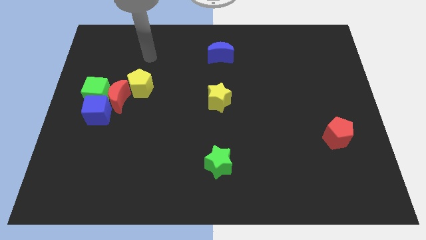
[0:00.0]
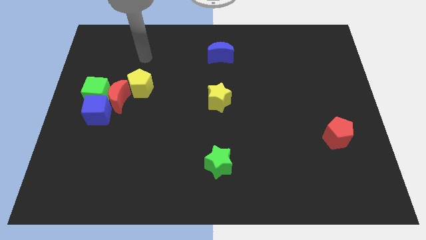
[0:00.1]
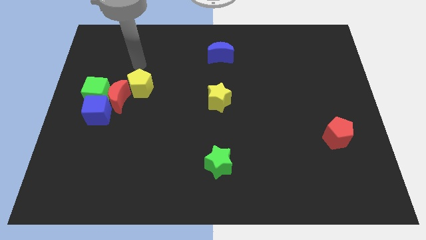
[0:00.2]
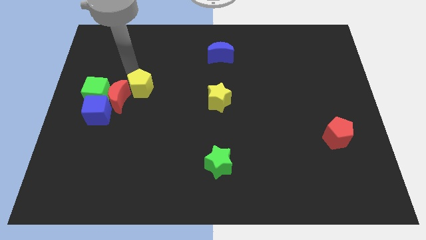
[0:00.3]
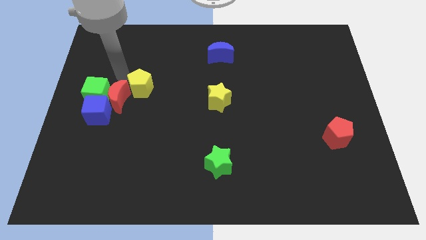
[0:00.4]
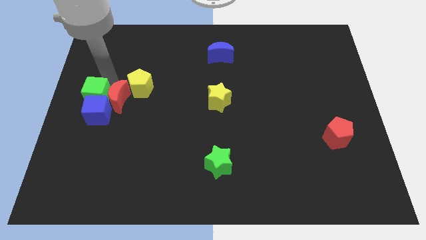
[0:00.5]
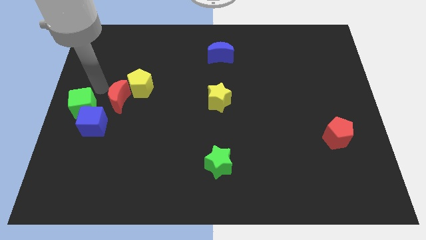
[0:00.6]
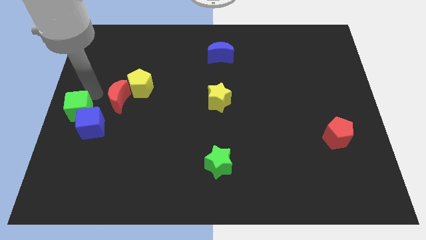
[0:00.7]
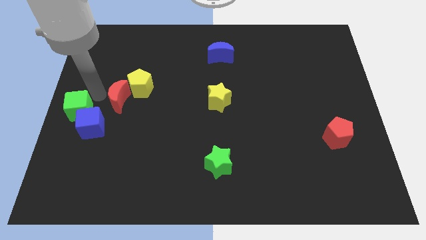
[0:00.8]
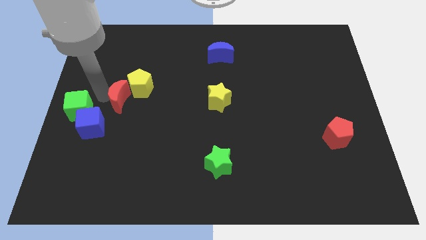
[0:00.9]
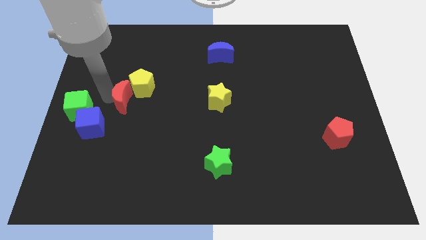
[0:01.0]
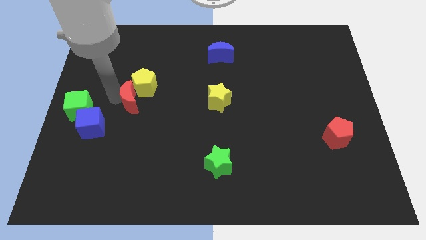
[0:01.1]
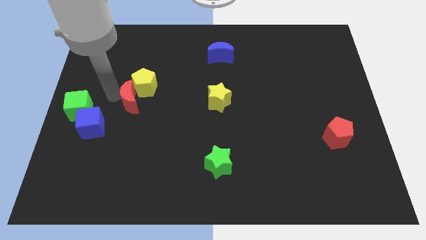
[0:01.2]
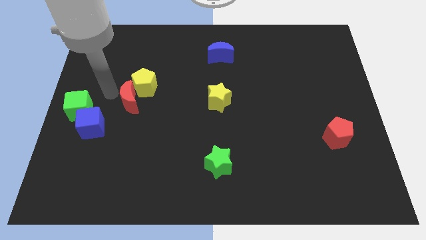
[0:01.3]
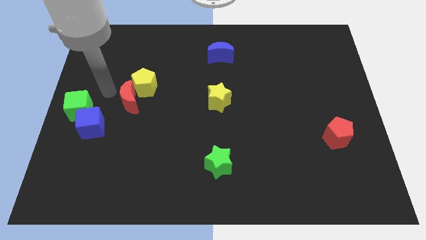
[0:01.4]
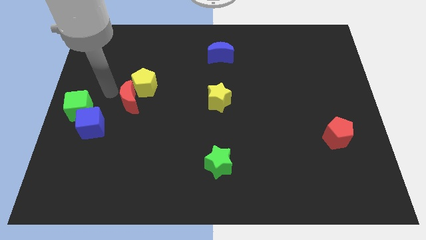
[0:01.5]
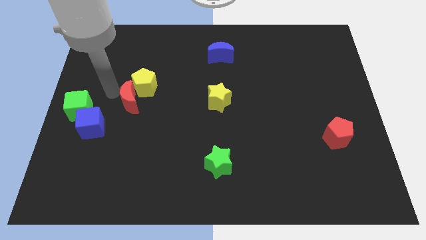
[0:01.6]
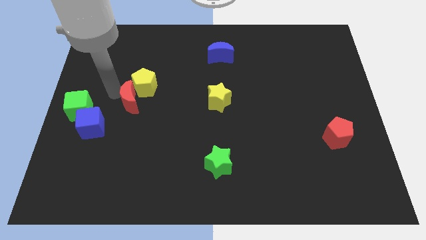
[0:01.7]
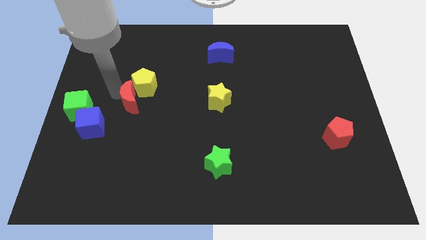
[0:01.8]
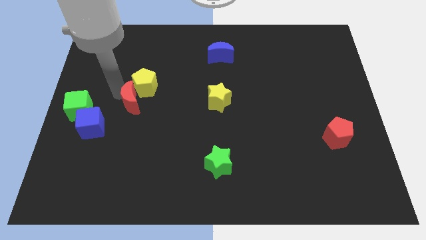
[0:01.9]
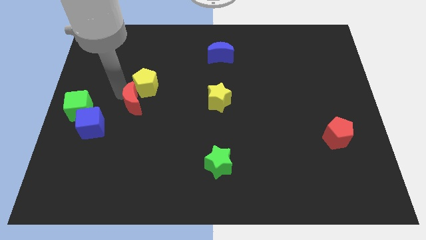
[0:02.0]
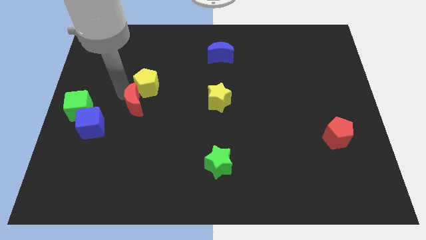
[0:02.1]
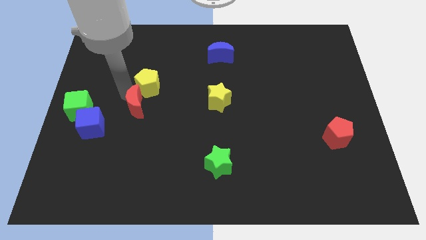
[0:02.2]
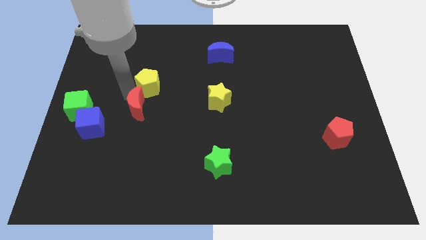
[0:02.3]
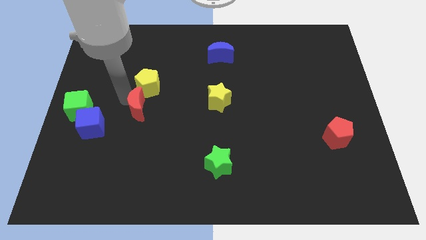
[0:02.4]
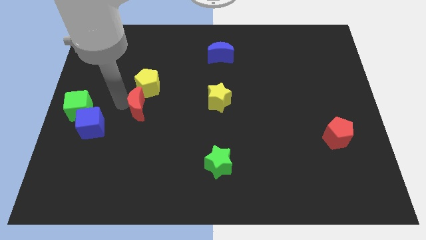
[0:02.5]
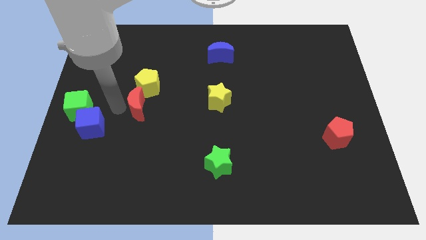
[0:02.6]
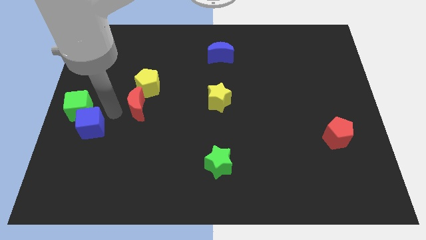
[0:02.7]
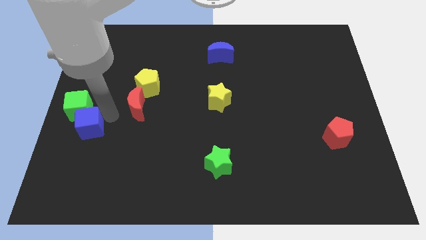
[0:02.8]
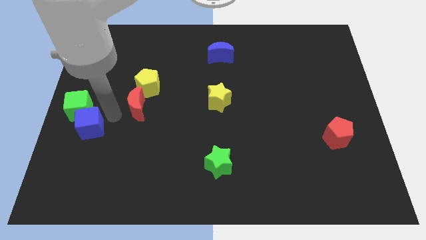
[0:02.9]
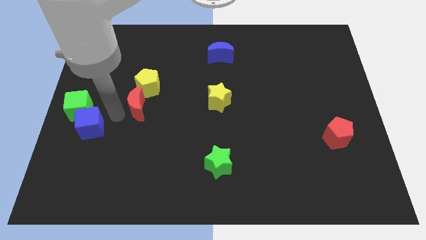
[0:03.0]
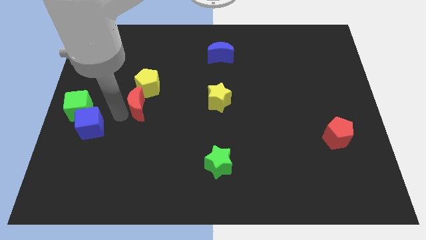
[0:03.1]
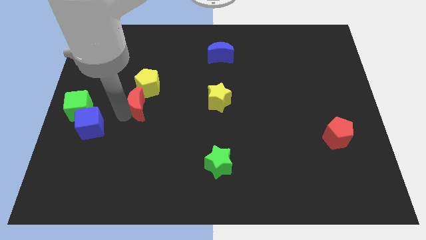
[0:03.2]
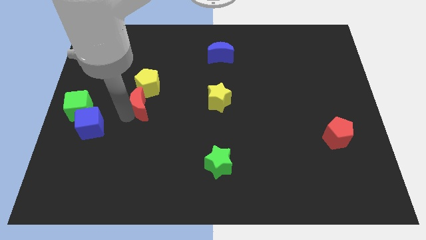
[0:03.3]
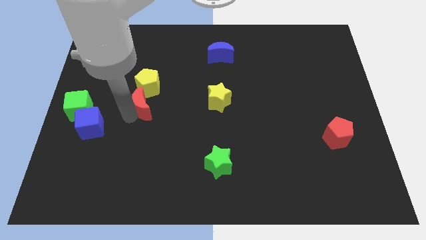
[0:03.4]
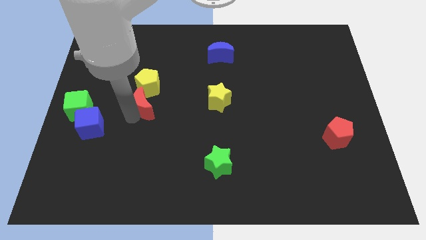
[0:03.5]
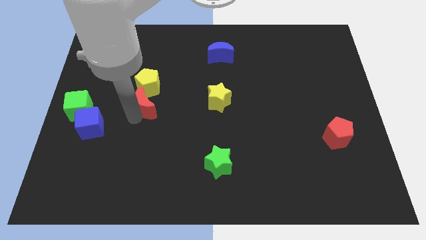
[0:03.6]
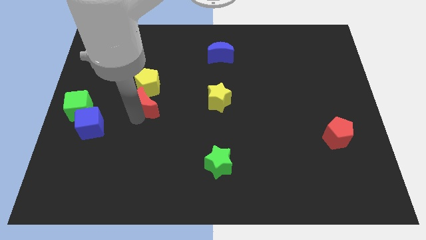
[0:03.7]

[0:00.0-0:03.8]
slide the red moon right somewhat

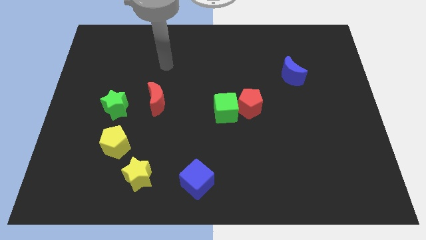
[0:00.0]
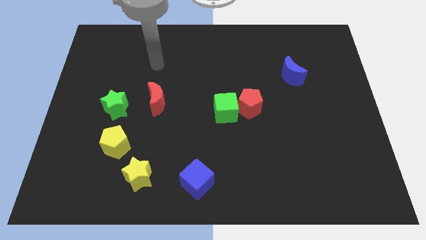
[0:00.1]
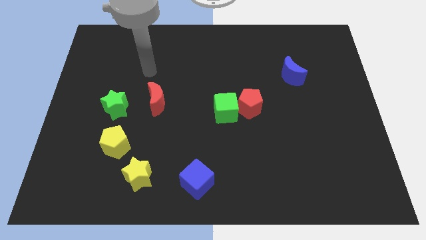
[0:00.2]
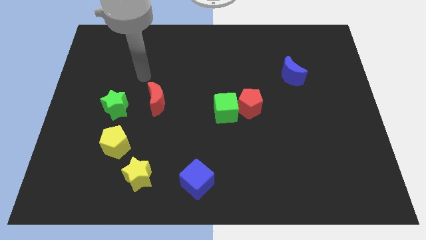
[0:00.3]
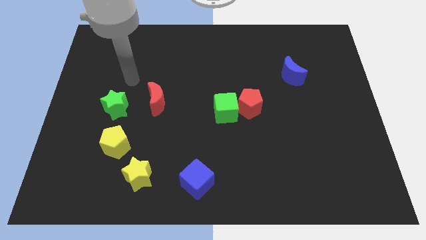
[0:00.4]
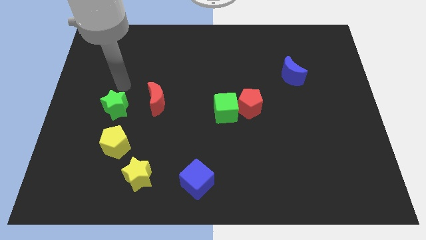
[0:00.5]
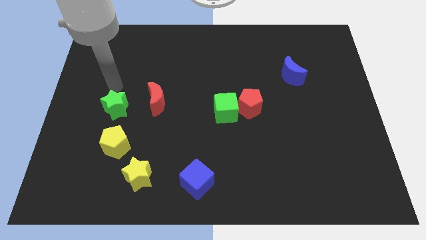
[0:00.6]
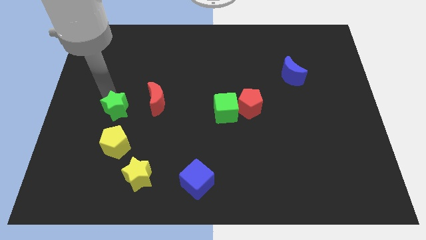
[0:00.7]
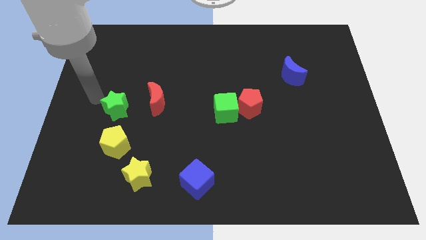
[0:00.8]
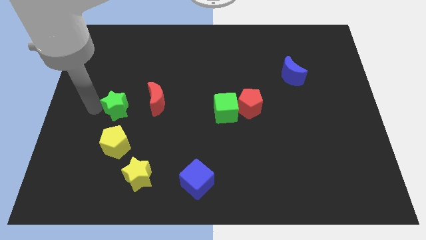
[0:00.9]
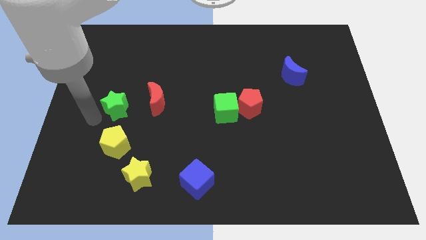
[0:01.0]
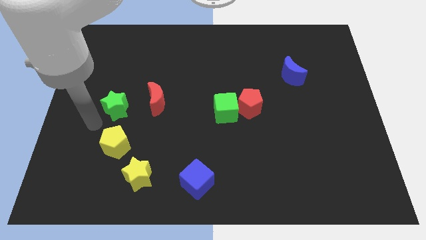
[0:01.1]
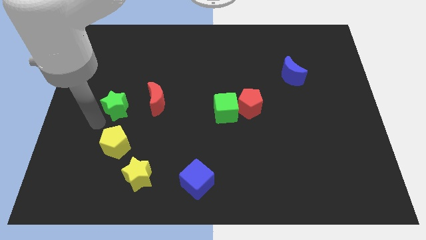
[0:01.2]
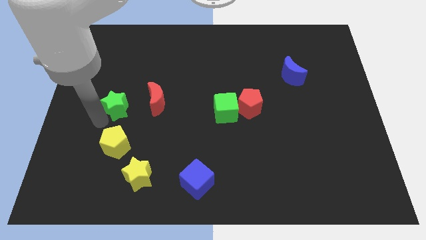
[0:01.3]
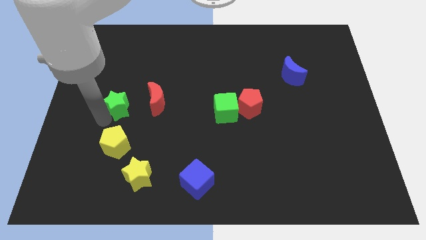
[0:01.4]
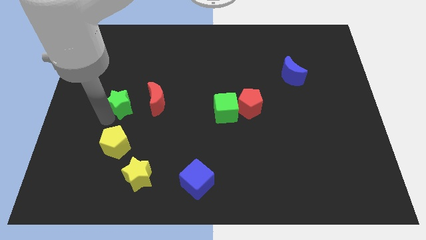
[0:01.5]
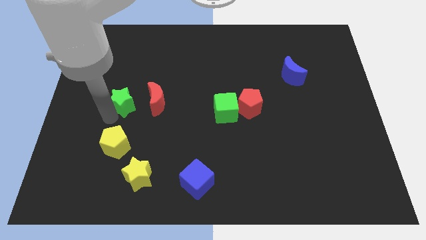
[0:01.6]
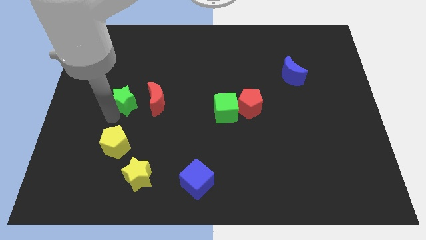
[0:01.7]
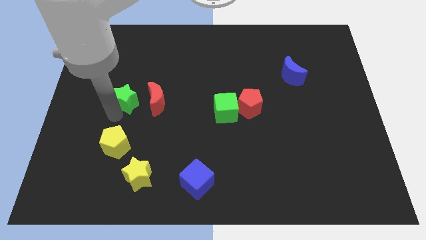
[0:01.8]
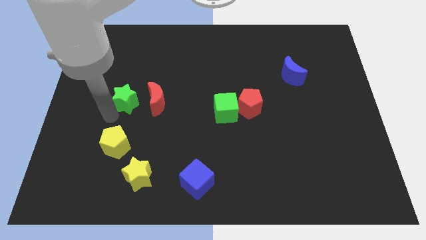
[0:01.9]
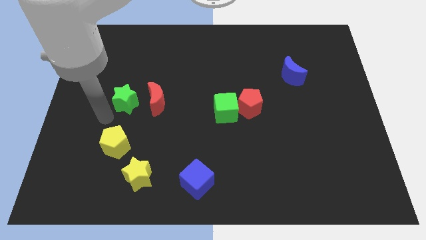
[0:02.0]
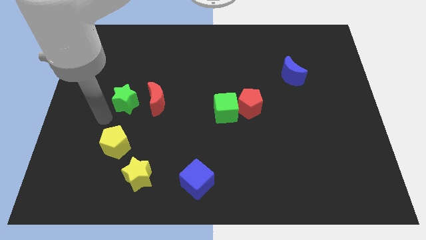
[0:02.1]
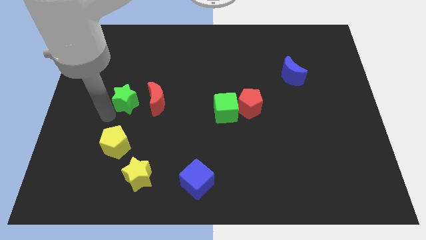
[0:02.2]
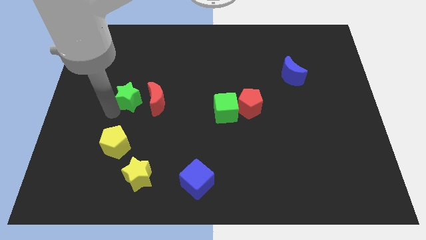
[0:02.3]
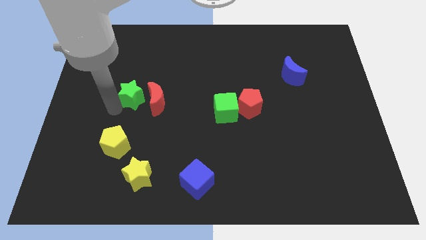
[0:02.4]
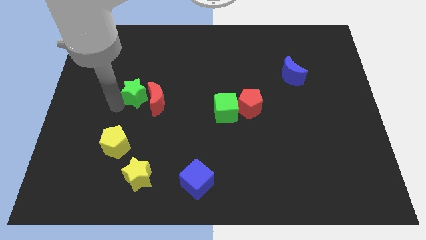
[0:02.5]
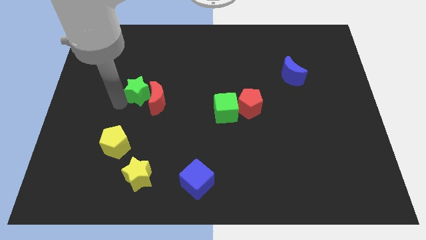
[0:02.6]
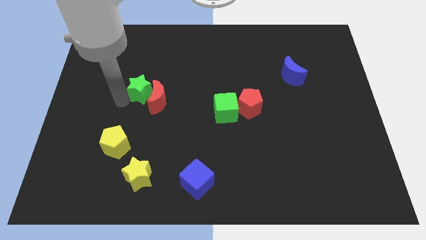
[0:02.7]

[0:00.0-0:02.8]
slide the green star diagonally up and right a little bit

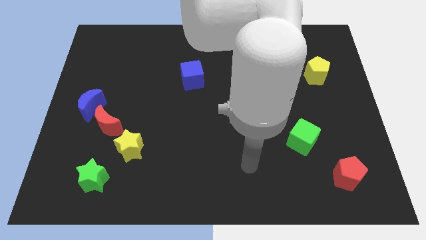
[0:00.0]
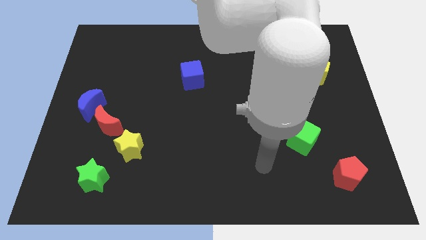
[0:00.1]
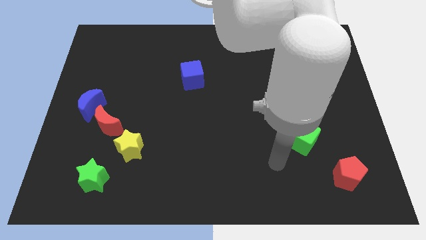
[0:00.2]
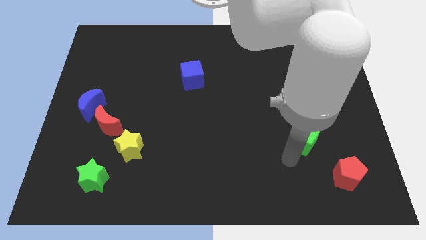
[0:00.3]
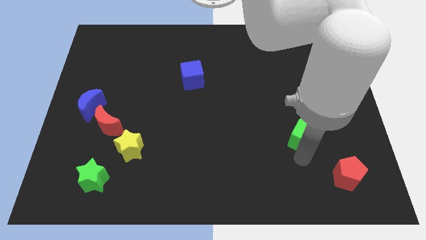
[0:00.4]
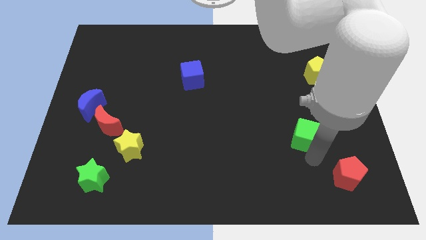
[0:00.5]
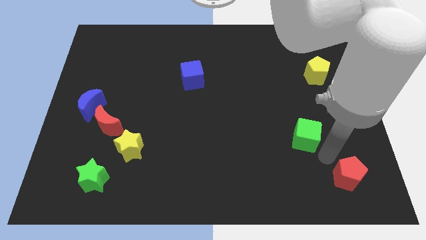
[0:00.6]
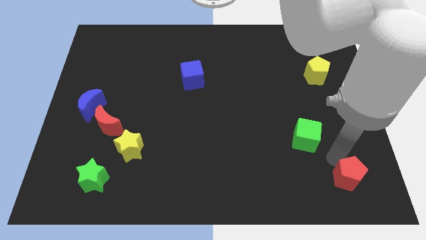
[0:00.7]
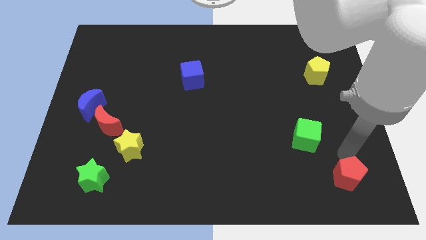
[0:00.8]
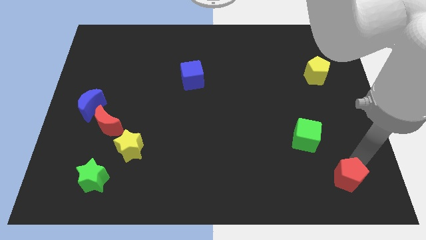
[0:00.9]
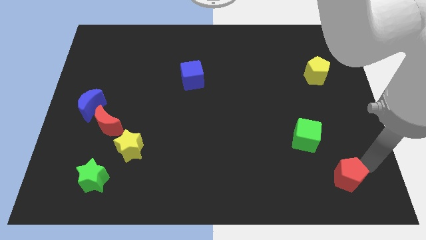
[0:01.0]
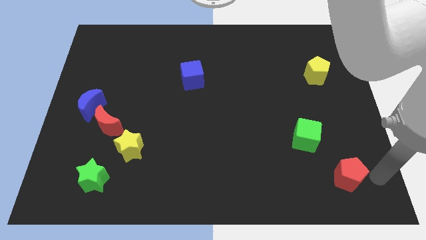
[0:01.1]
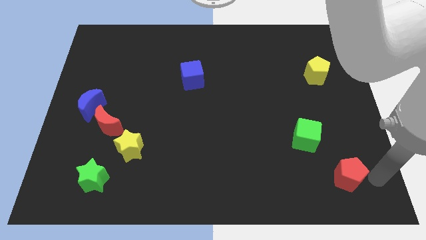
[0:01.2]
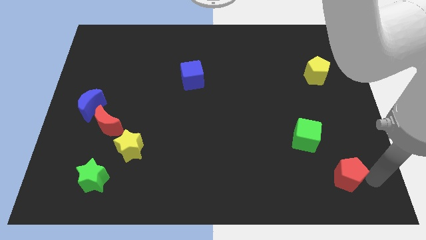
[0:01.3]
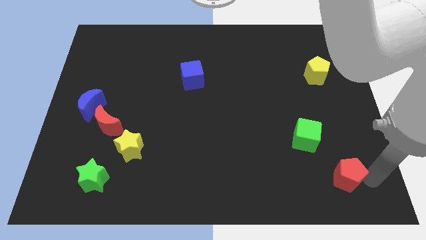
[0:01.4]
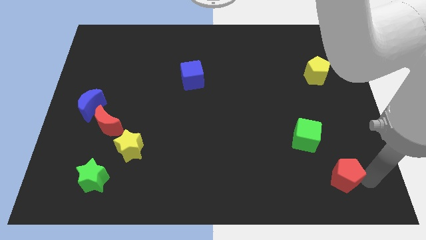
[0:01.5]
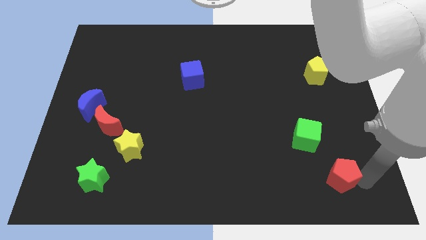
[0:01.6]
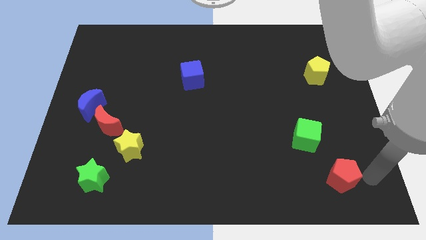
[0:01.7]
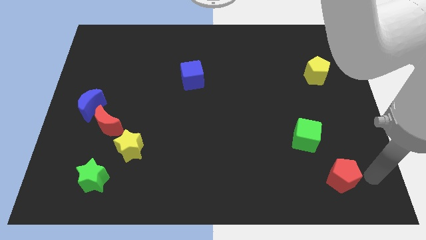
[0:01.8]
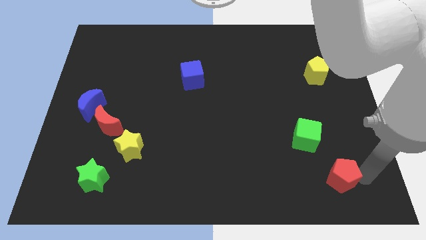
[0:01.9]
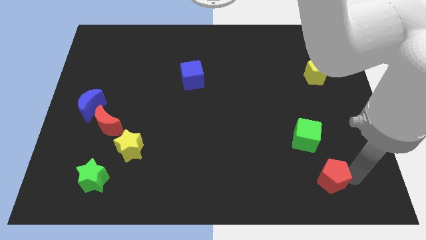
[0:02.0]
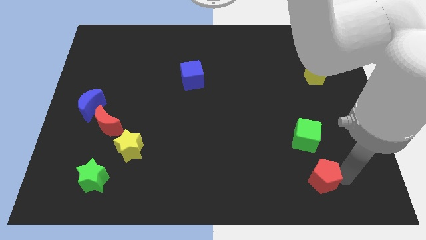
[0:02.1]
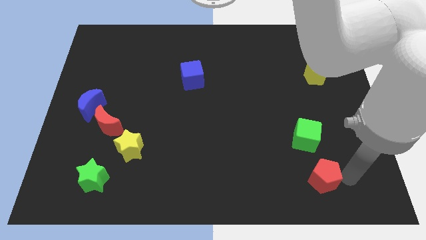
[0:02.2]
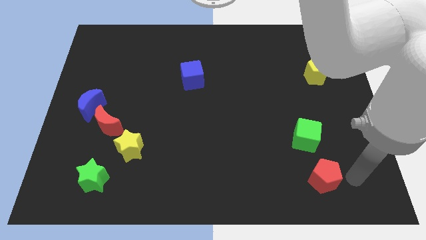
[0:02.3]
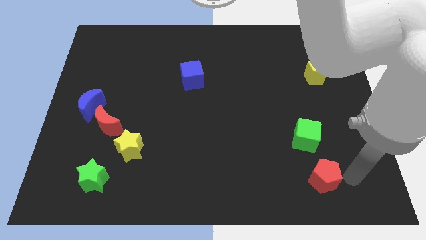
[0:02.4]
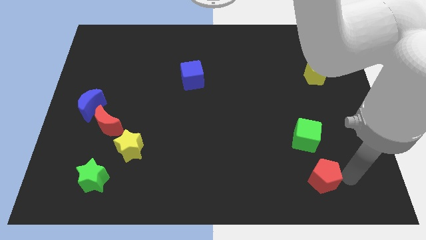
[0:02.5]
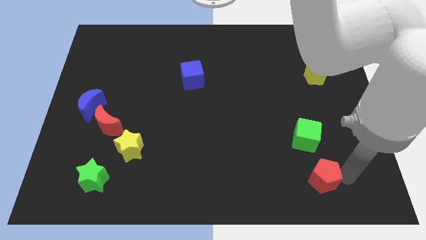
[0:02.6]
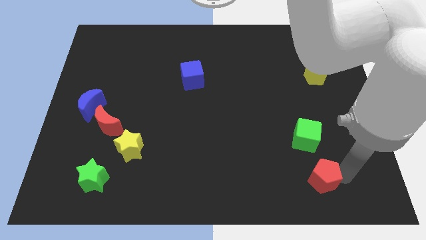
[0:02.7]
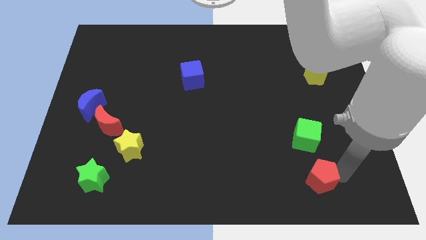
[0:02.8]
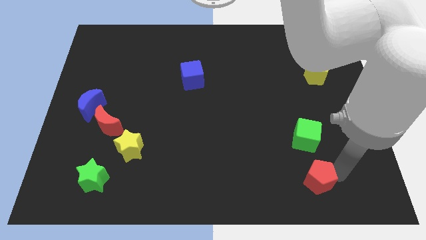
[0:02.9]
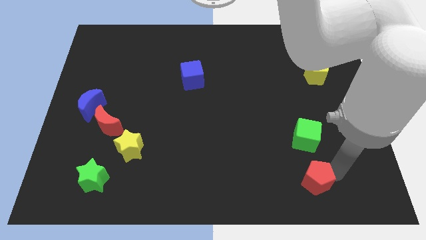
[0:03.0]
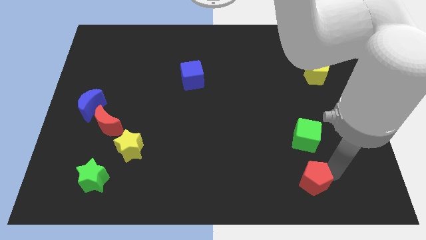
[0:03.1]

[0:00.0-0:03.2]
slide the red pentagon slightly to the left
